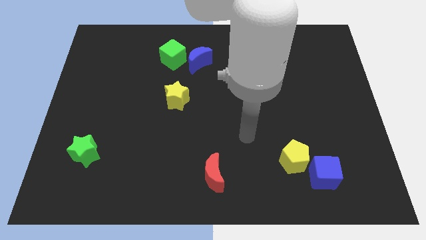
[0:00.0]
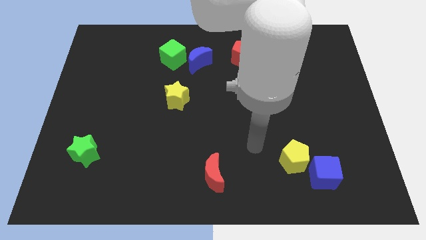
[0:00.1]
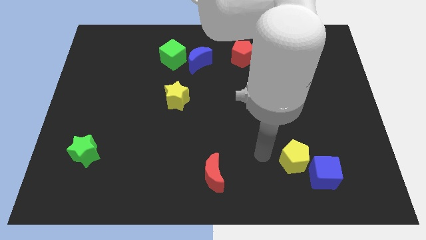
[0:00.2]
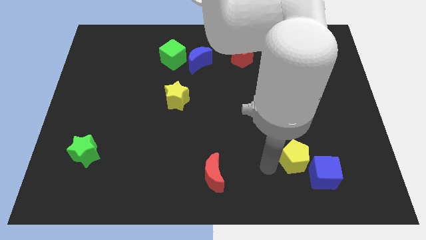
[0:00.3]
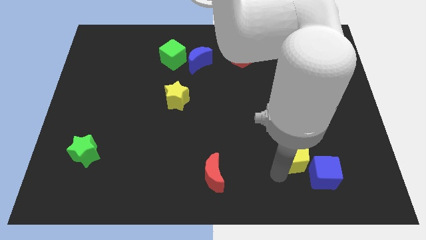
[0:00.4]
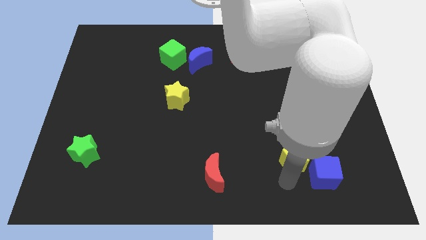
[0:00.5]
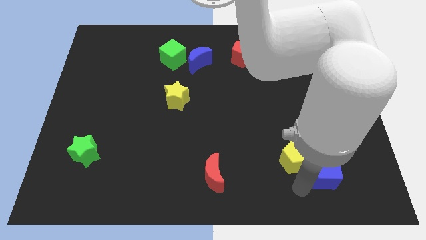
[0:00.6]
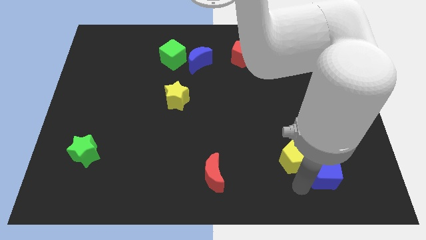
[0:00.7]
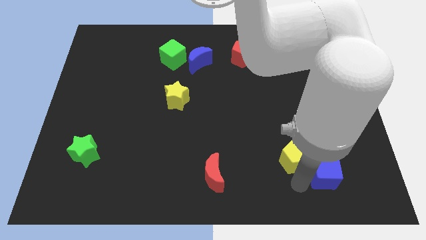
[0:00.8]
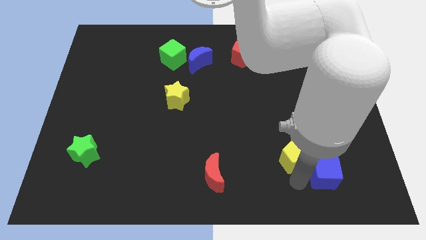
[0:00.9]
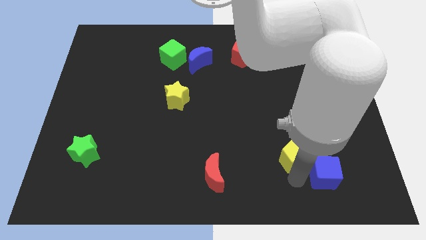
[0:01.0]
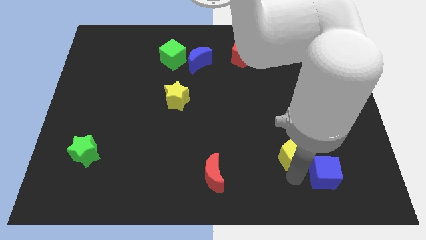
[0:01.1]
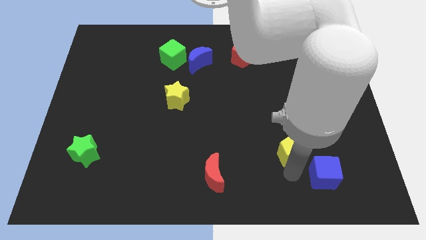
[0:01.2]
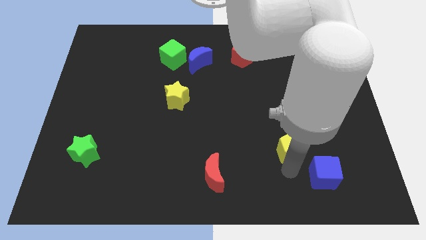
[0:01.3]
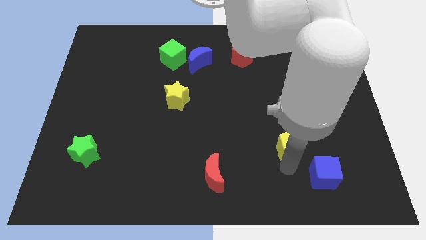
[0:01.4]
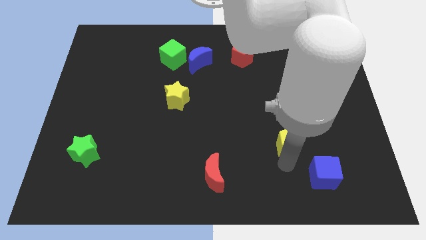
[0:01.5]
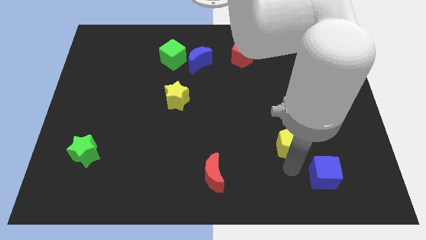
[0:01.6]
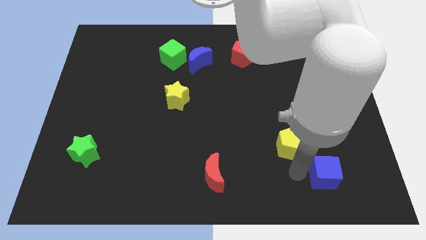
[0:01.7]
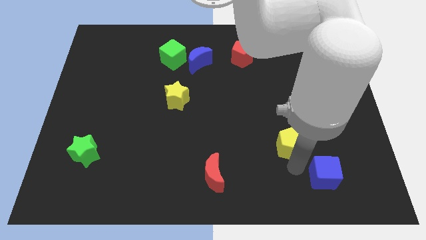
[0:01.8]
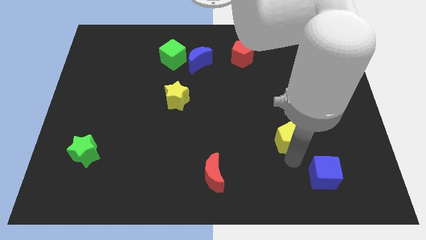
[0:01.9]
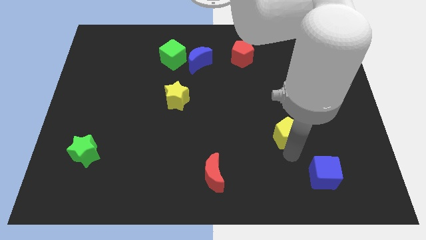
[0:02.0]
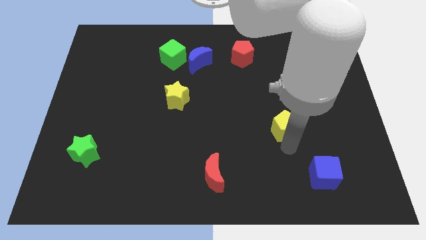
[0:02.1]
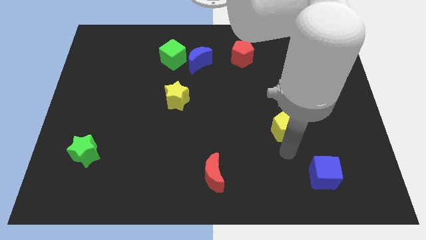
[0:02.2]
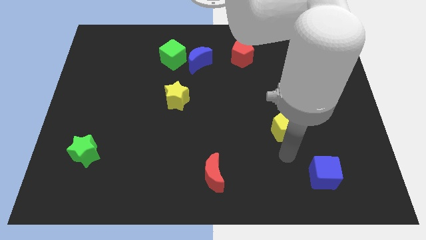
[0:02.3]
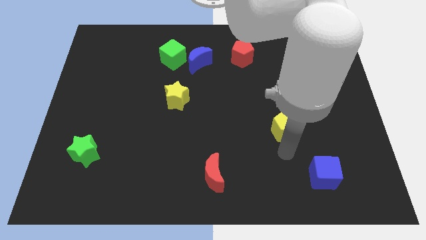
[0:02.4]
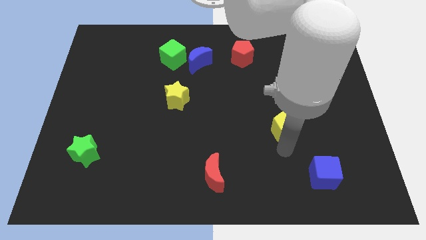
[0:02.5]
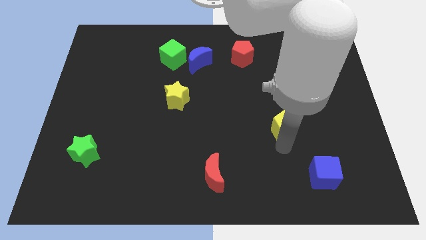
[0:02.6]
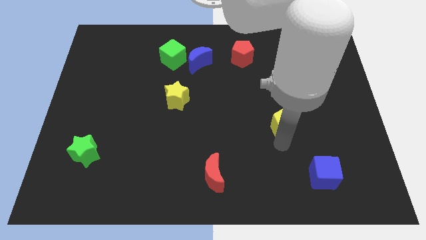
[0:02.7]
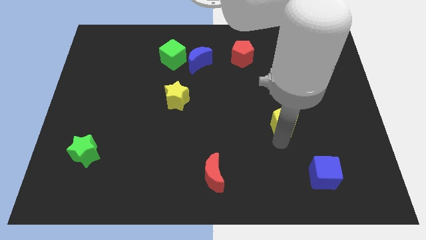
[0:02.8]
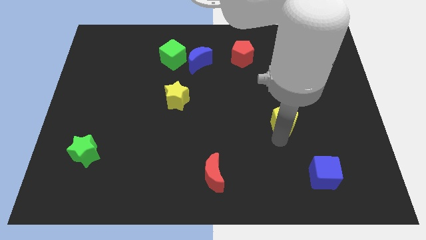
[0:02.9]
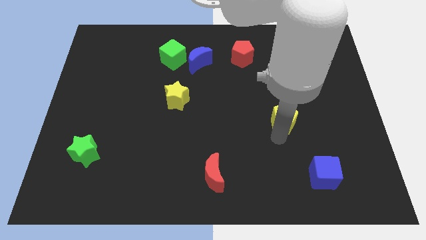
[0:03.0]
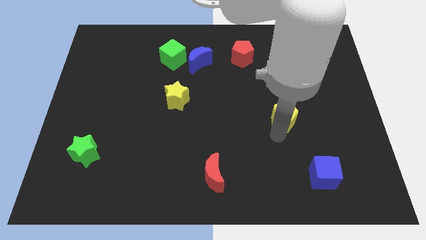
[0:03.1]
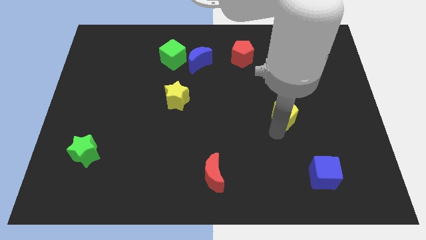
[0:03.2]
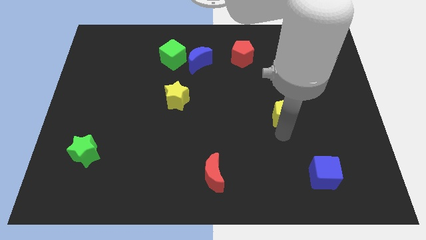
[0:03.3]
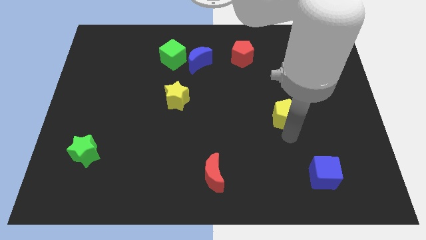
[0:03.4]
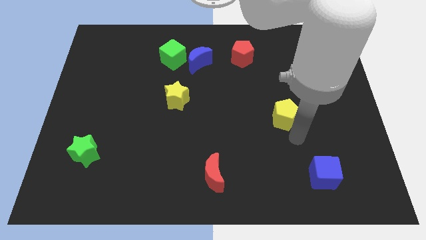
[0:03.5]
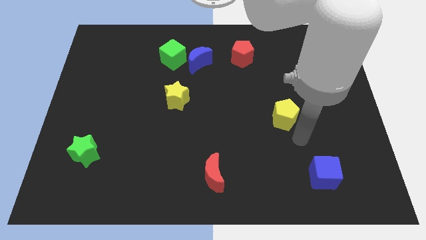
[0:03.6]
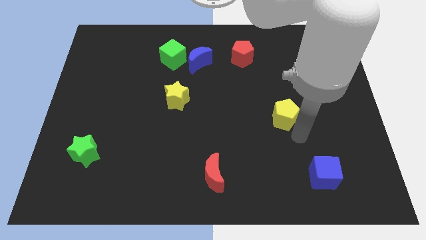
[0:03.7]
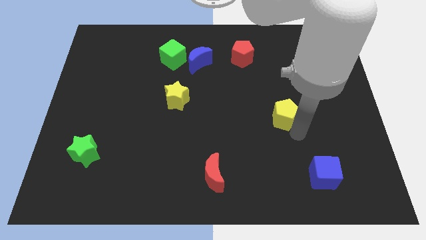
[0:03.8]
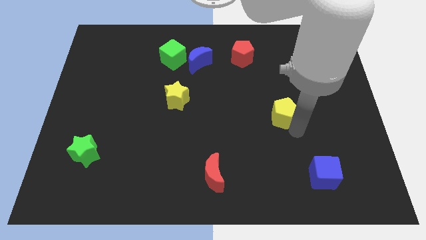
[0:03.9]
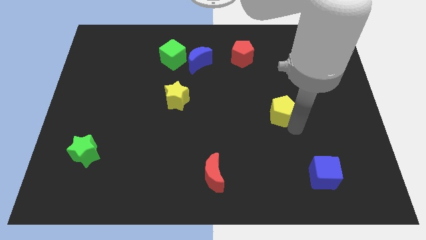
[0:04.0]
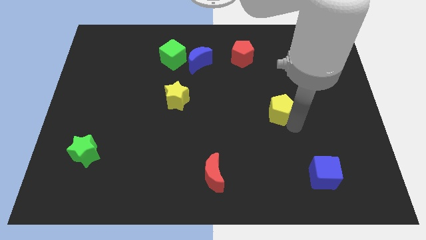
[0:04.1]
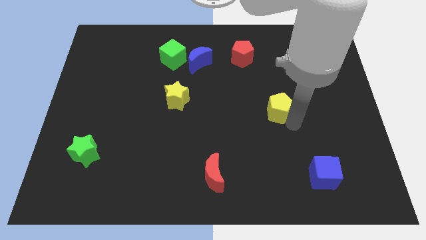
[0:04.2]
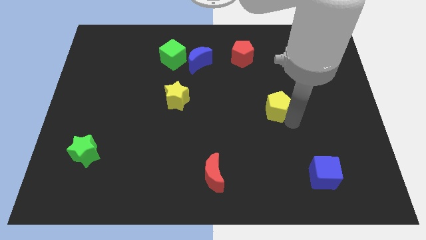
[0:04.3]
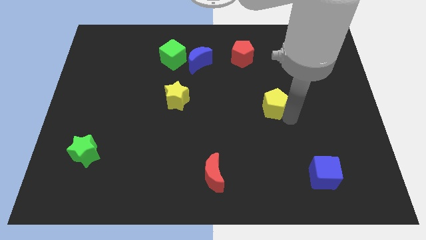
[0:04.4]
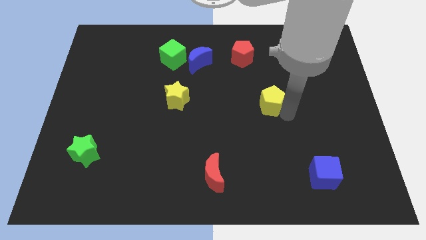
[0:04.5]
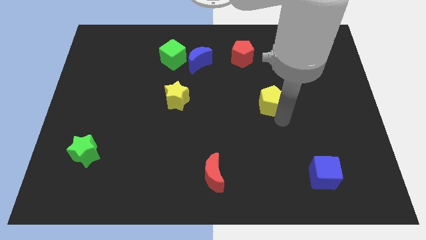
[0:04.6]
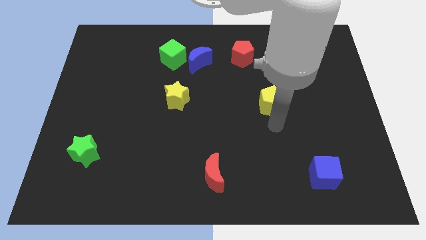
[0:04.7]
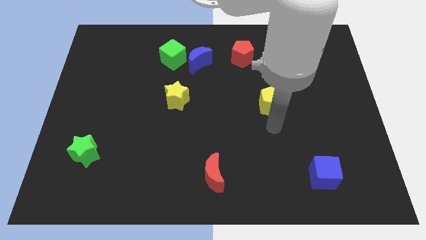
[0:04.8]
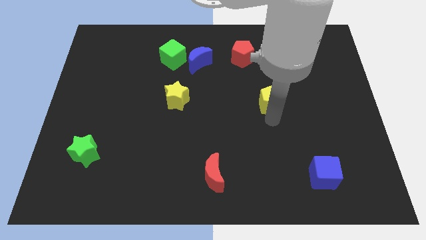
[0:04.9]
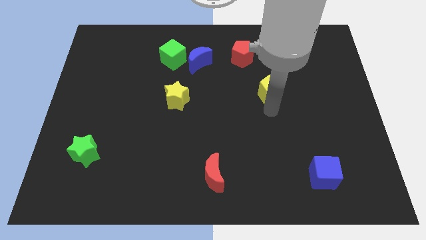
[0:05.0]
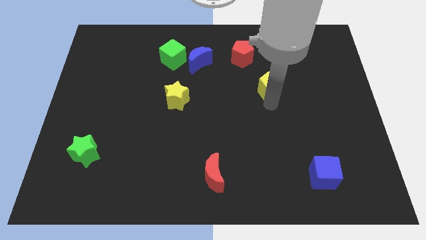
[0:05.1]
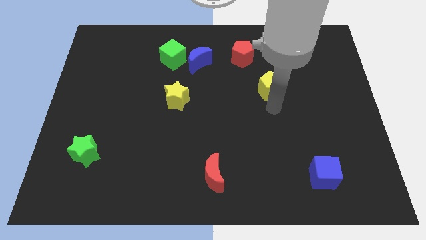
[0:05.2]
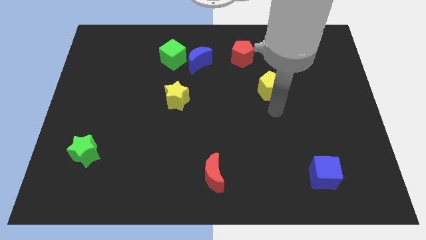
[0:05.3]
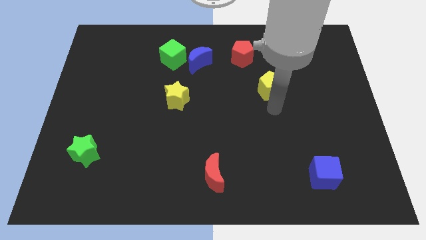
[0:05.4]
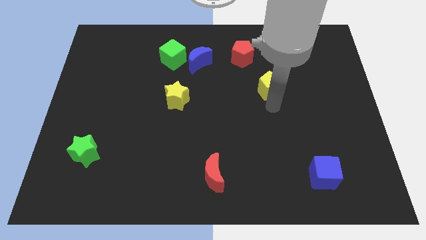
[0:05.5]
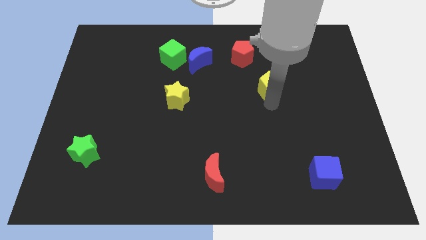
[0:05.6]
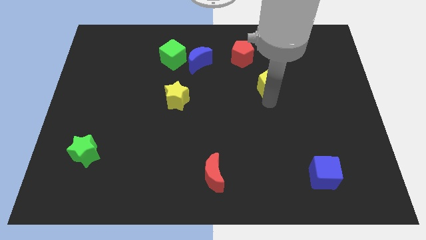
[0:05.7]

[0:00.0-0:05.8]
put the yellow pentagon to the bottom right of the red pentagon

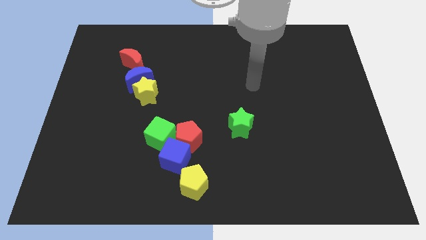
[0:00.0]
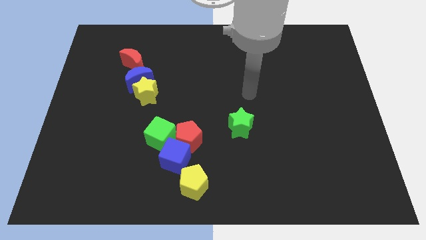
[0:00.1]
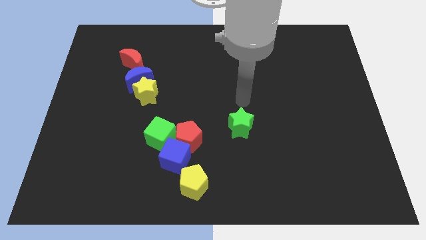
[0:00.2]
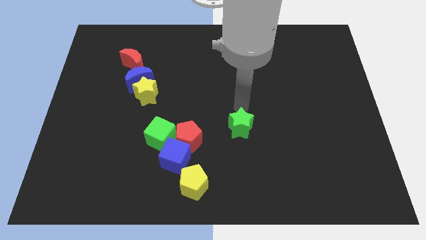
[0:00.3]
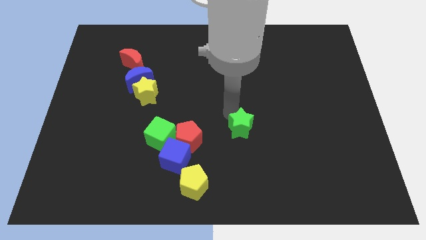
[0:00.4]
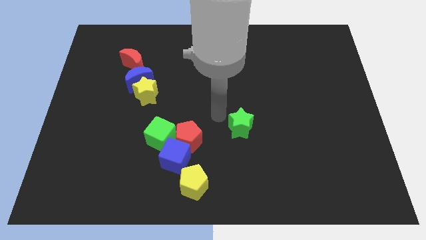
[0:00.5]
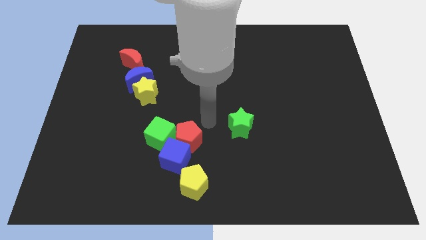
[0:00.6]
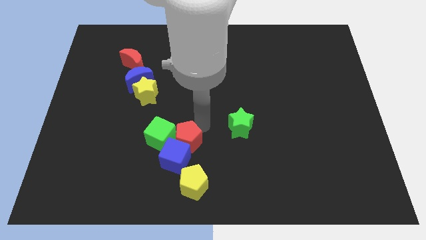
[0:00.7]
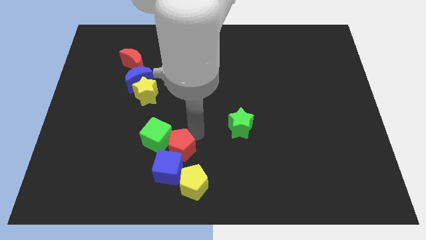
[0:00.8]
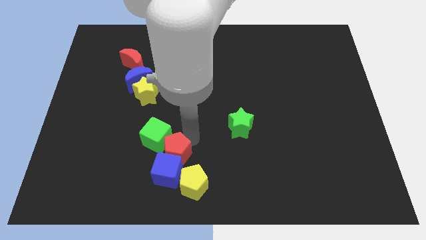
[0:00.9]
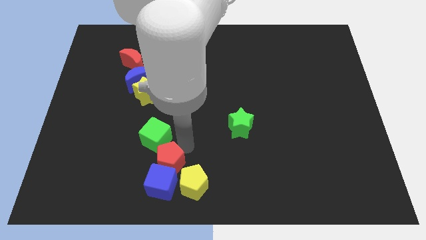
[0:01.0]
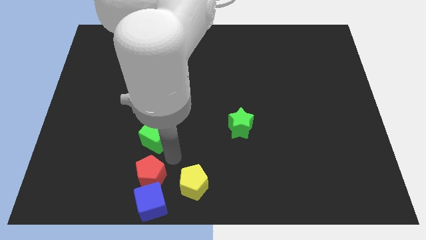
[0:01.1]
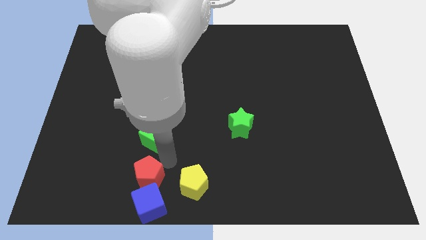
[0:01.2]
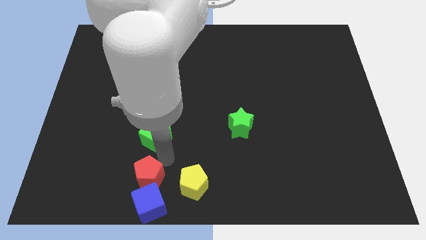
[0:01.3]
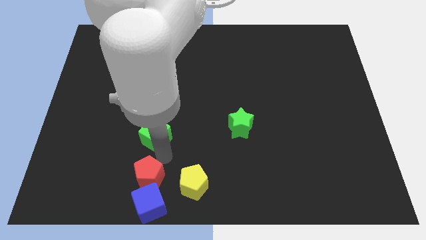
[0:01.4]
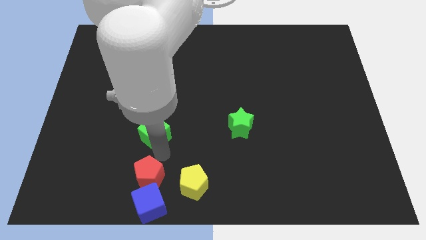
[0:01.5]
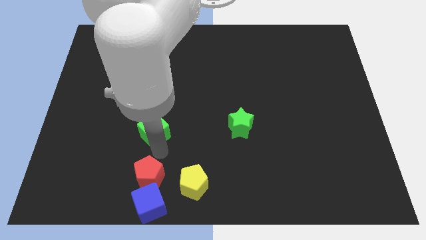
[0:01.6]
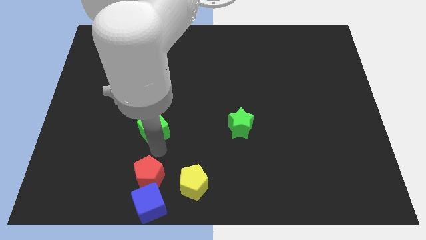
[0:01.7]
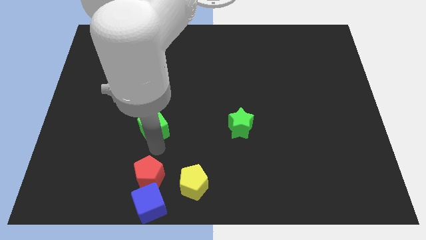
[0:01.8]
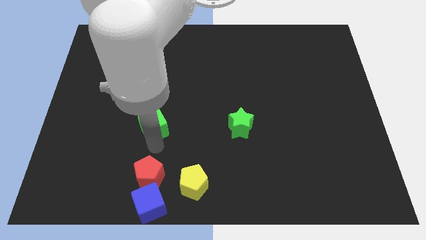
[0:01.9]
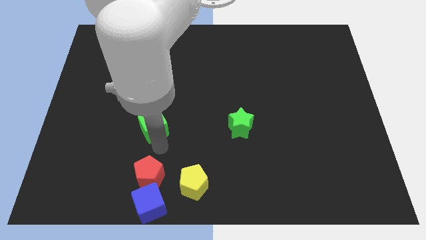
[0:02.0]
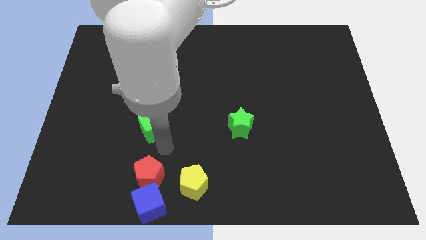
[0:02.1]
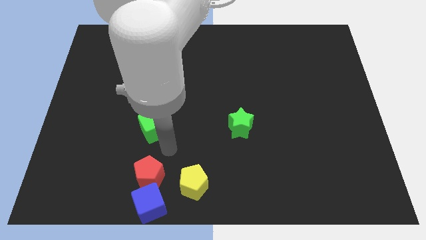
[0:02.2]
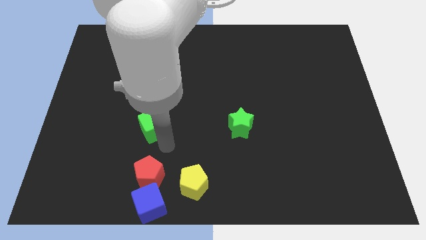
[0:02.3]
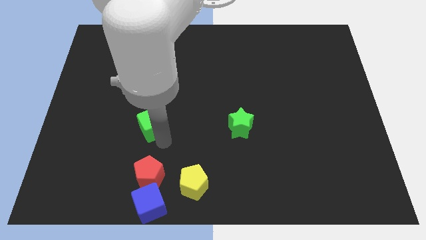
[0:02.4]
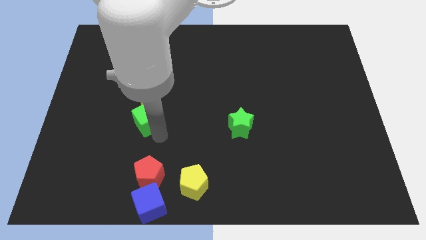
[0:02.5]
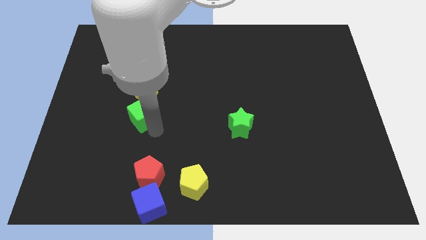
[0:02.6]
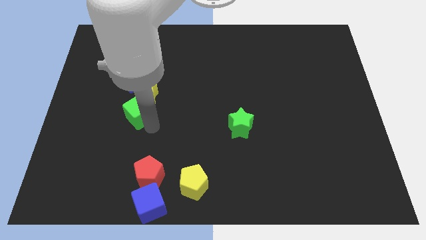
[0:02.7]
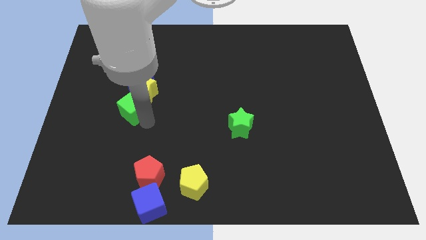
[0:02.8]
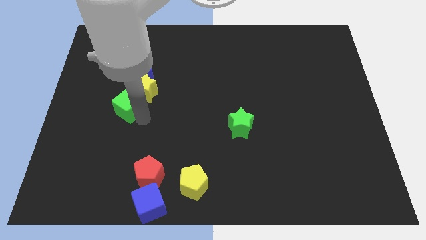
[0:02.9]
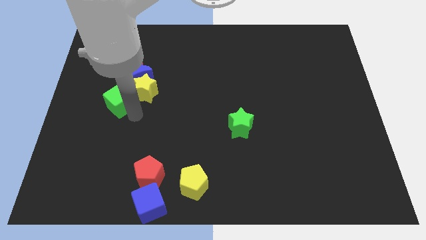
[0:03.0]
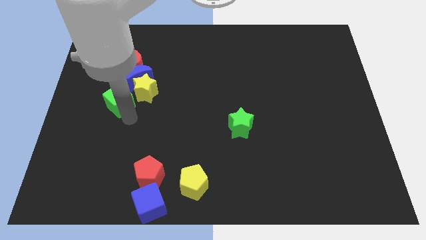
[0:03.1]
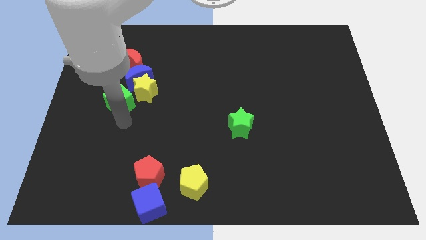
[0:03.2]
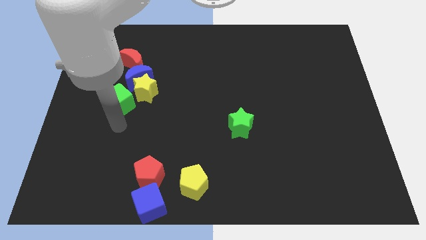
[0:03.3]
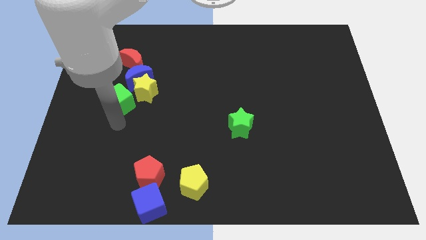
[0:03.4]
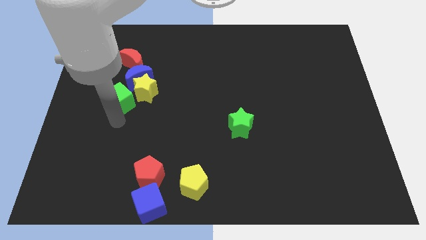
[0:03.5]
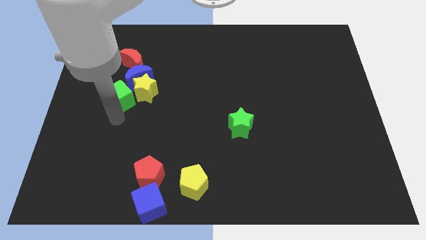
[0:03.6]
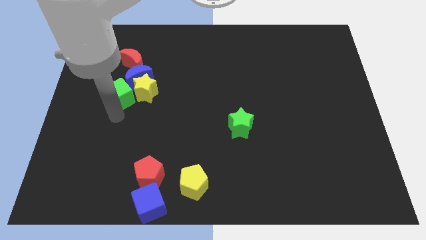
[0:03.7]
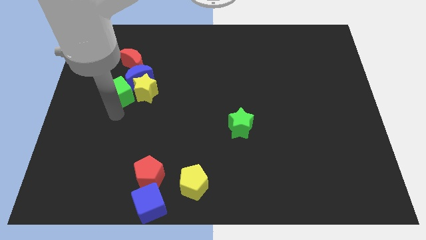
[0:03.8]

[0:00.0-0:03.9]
put the green cube diagonally up and to the left of the yellow star
